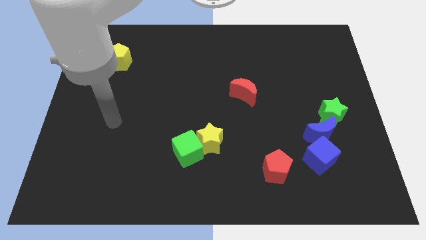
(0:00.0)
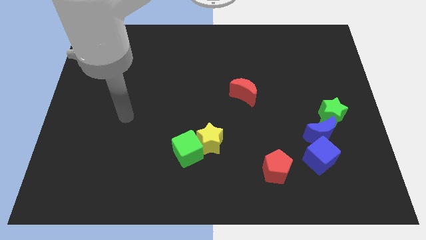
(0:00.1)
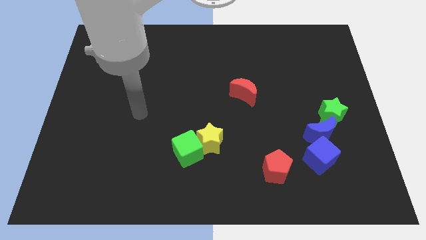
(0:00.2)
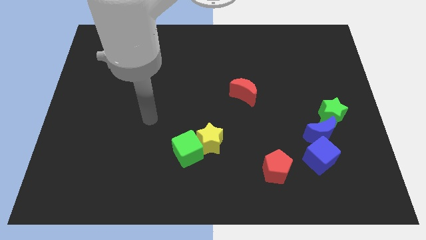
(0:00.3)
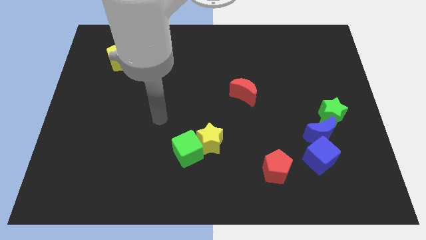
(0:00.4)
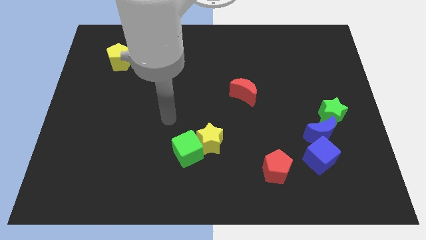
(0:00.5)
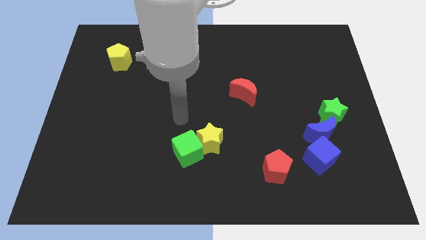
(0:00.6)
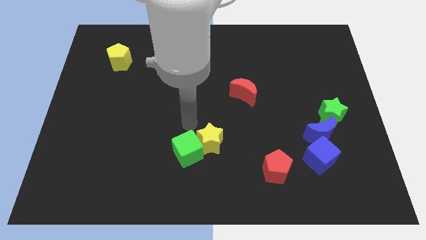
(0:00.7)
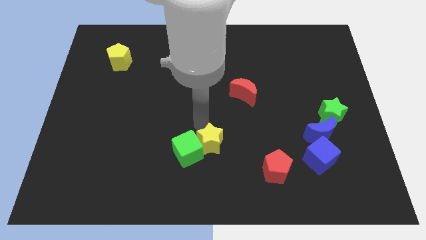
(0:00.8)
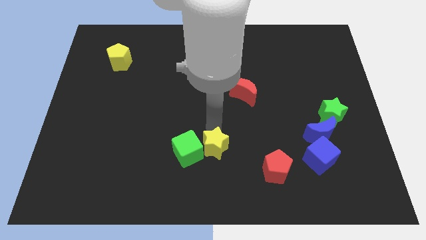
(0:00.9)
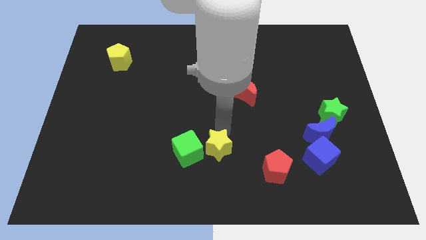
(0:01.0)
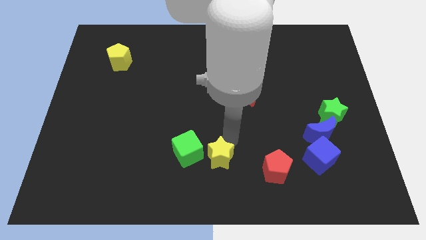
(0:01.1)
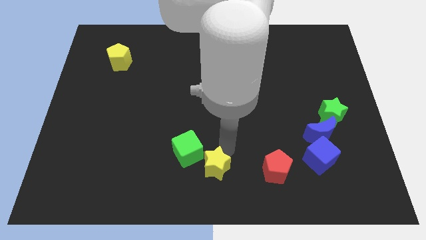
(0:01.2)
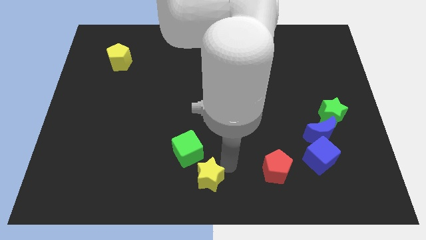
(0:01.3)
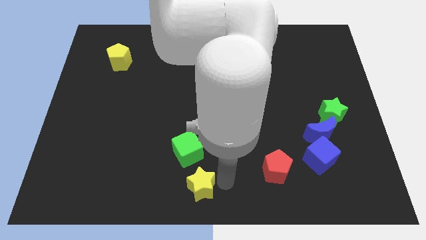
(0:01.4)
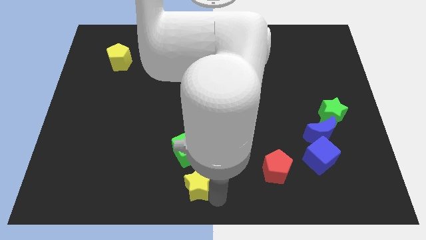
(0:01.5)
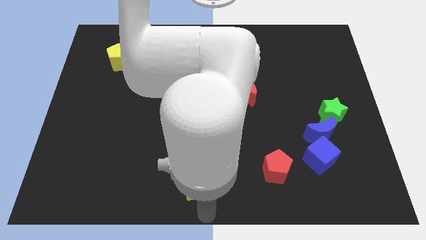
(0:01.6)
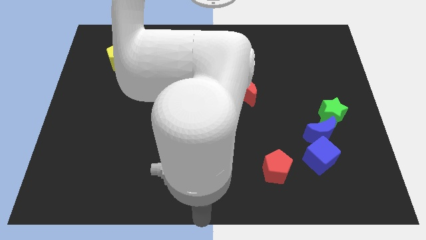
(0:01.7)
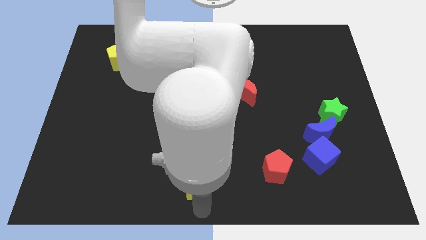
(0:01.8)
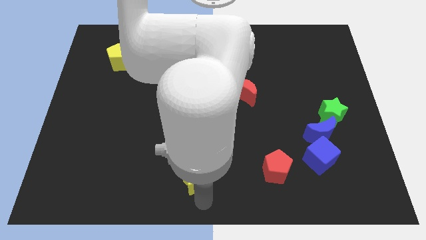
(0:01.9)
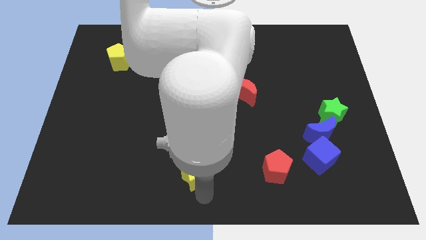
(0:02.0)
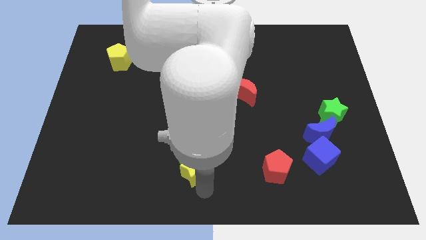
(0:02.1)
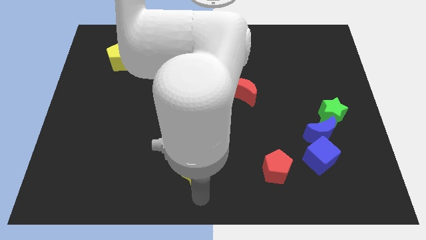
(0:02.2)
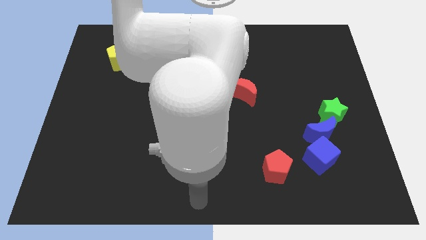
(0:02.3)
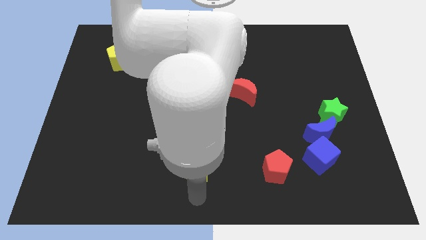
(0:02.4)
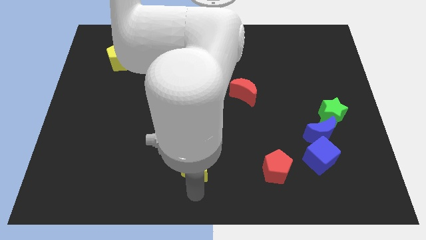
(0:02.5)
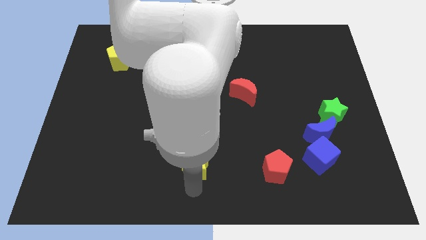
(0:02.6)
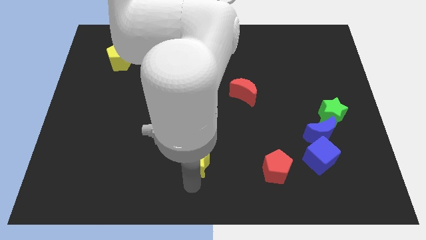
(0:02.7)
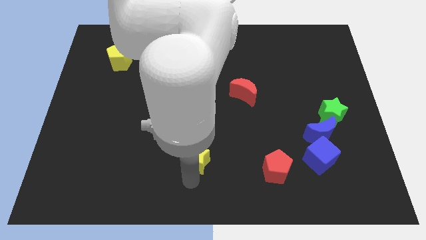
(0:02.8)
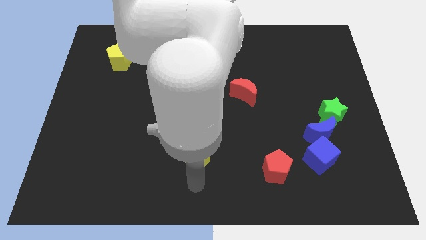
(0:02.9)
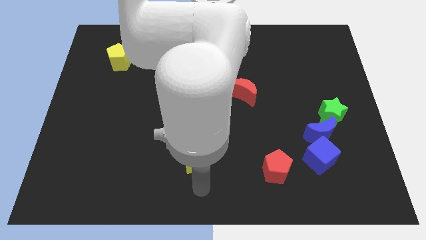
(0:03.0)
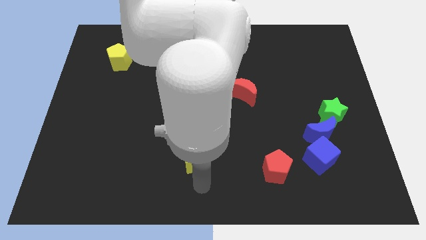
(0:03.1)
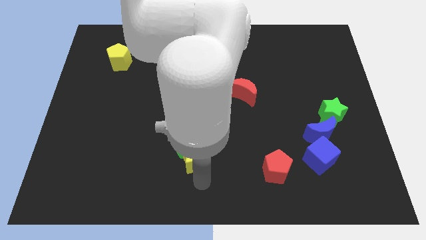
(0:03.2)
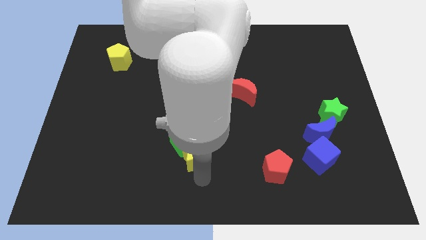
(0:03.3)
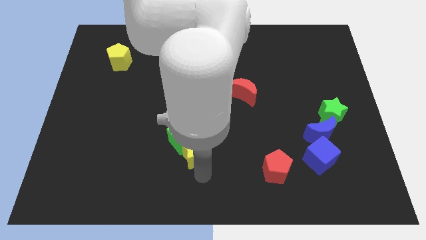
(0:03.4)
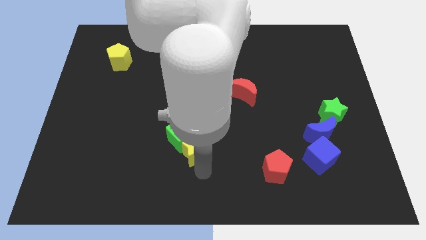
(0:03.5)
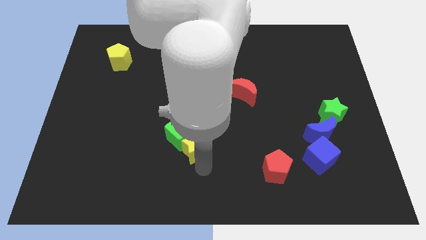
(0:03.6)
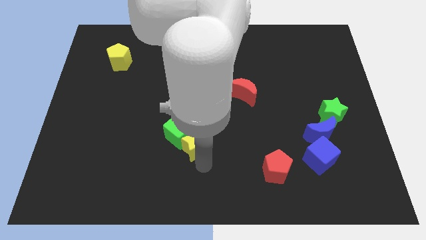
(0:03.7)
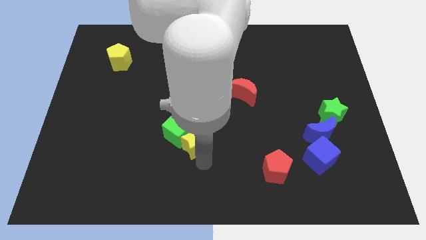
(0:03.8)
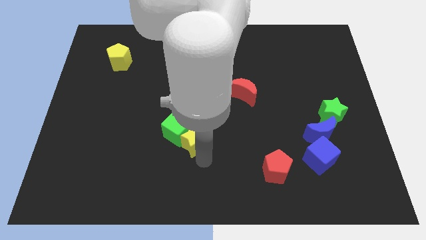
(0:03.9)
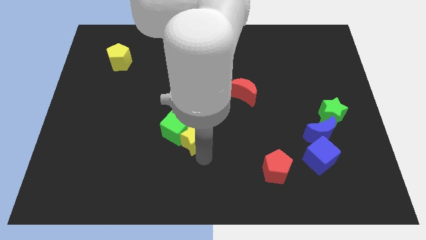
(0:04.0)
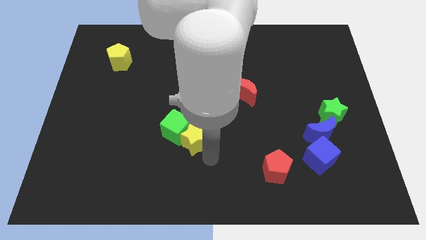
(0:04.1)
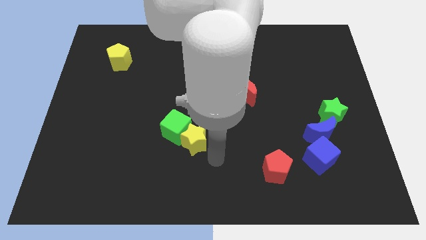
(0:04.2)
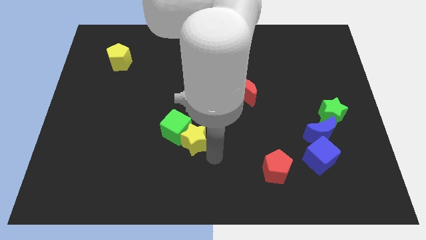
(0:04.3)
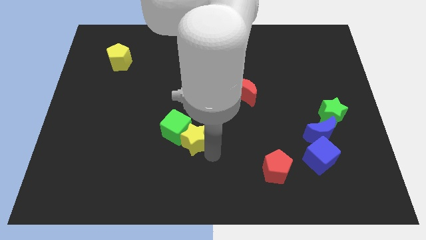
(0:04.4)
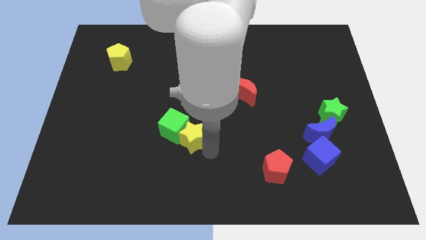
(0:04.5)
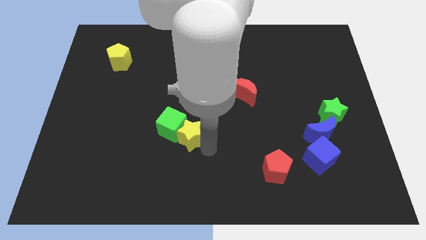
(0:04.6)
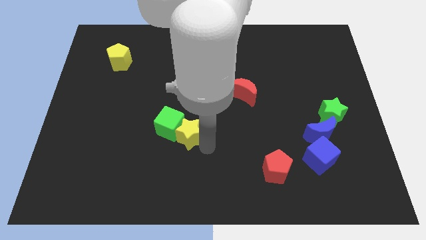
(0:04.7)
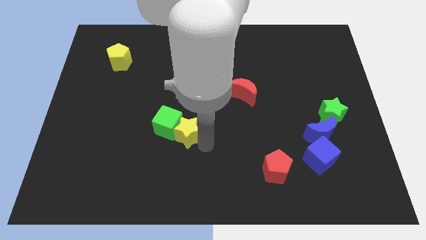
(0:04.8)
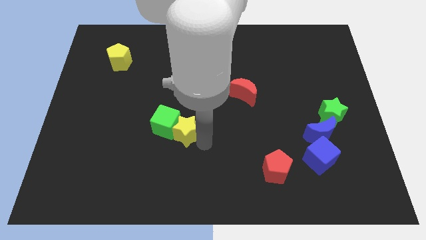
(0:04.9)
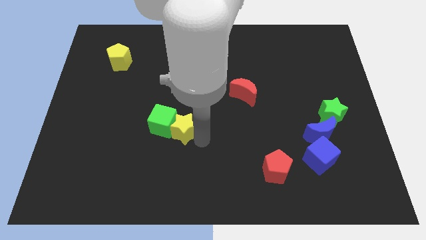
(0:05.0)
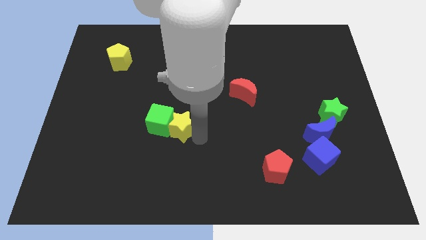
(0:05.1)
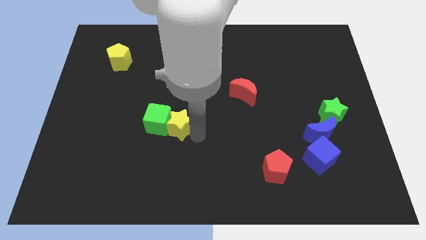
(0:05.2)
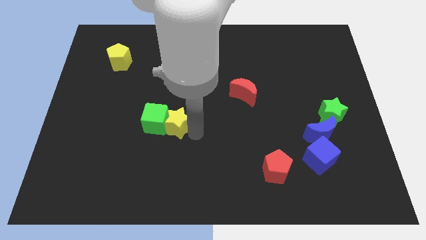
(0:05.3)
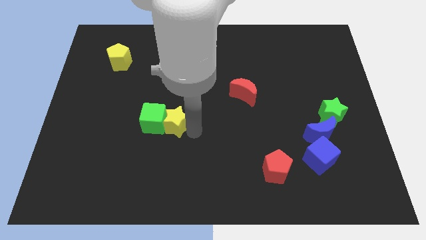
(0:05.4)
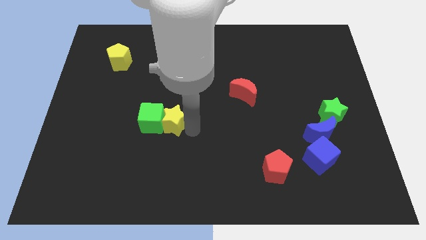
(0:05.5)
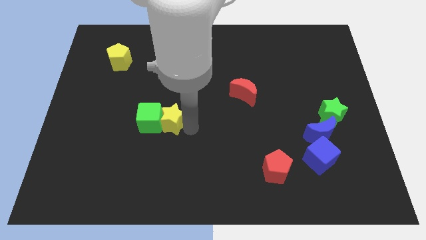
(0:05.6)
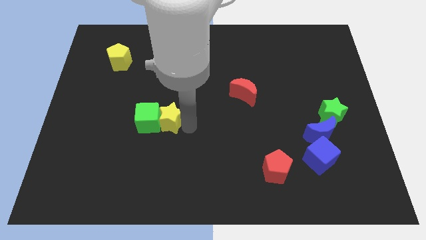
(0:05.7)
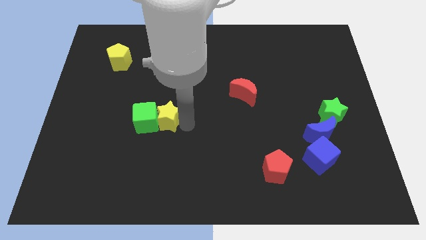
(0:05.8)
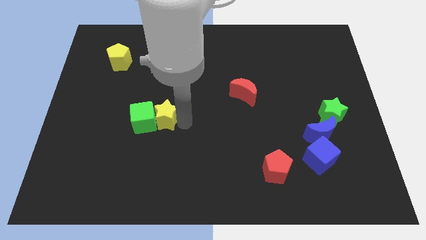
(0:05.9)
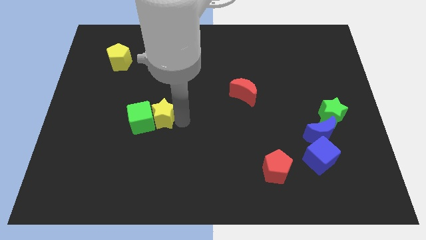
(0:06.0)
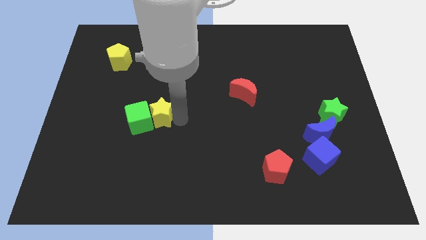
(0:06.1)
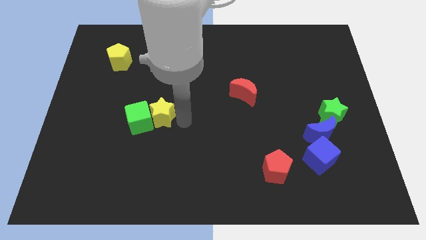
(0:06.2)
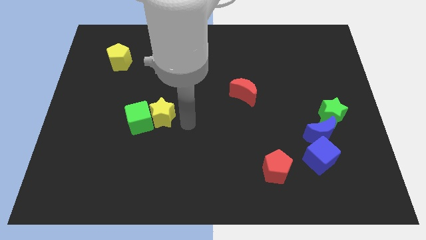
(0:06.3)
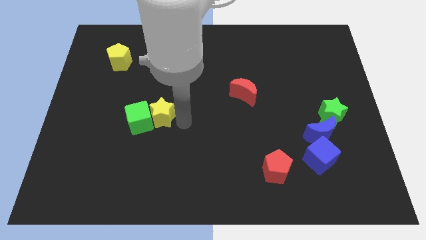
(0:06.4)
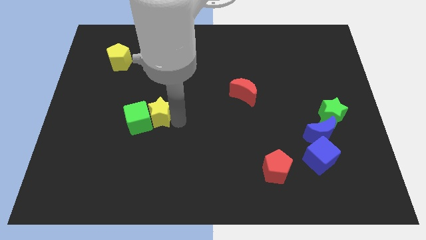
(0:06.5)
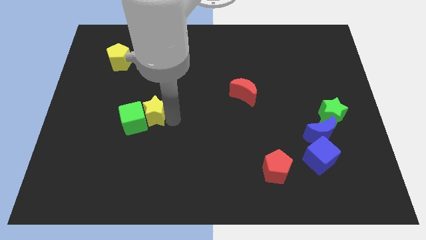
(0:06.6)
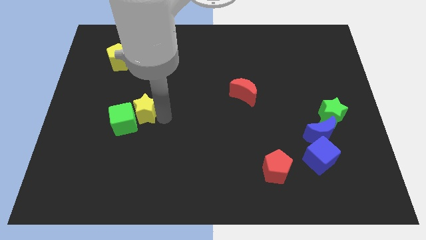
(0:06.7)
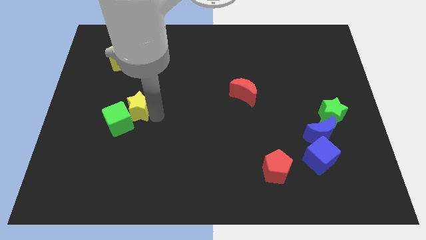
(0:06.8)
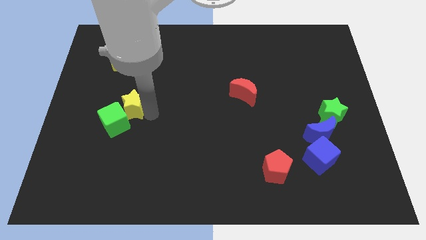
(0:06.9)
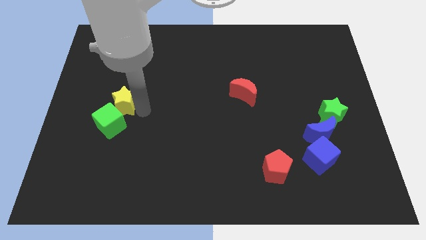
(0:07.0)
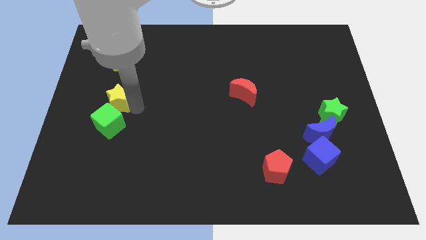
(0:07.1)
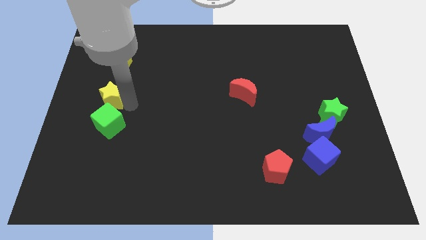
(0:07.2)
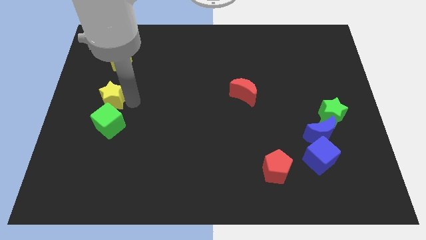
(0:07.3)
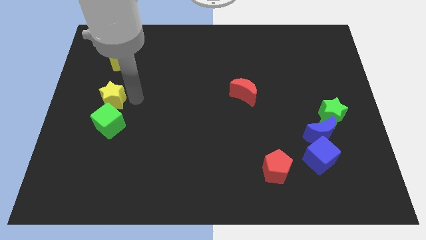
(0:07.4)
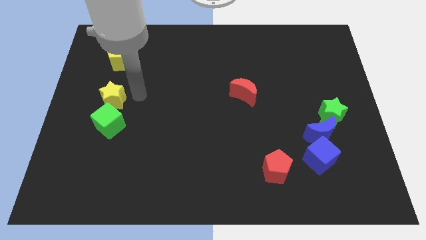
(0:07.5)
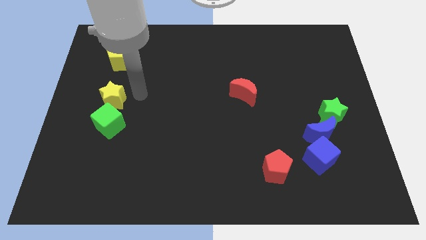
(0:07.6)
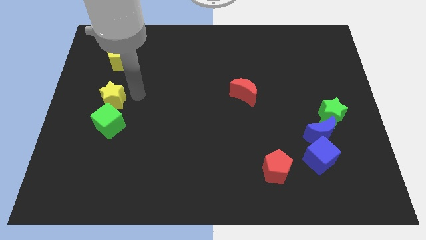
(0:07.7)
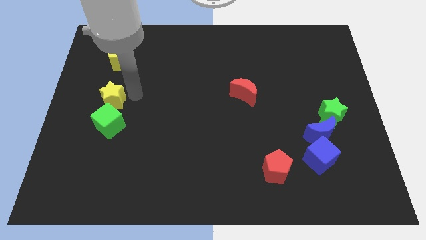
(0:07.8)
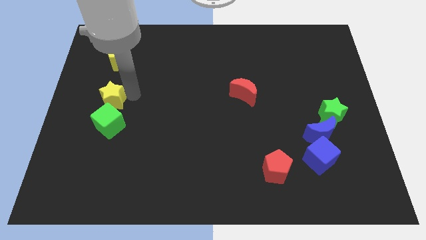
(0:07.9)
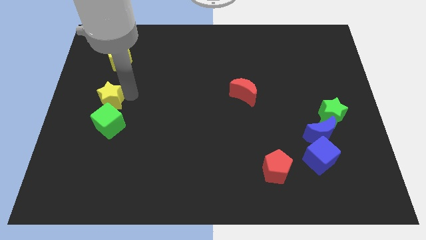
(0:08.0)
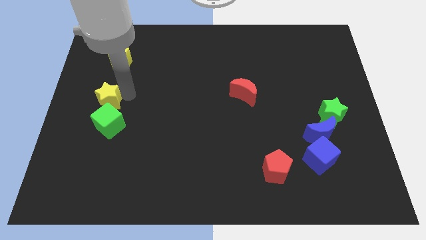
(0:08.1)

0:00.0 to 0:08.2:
move the yellow star to the left side
